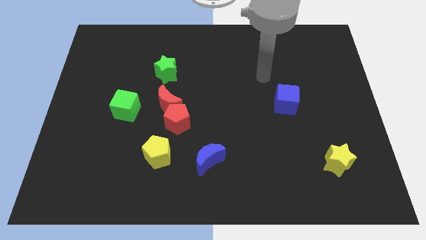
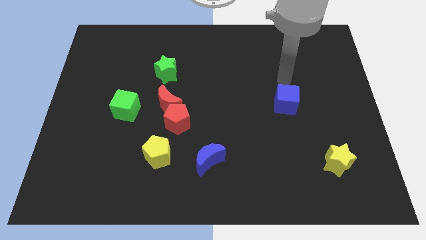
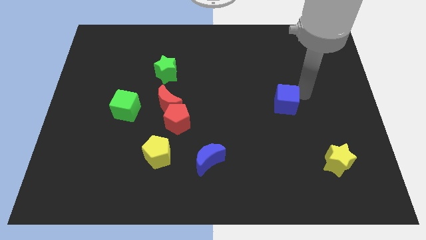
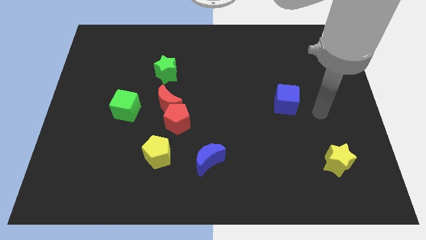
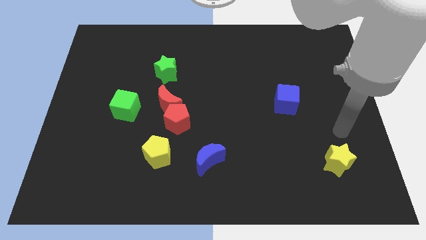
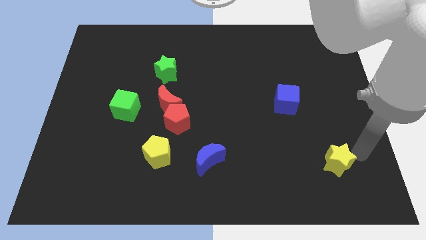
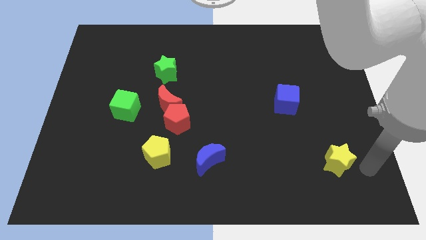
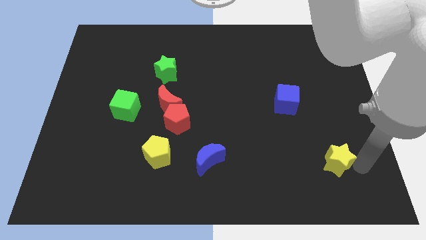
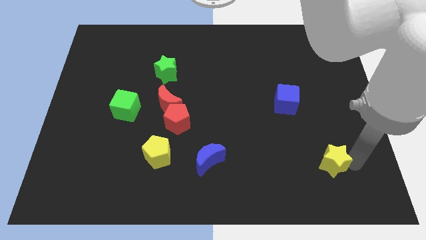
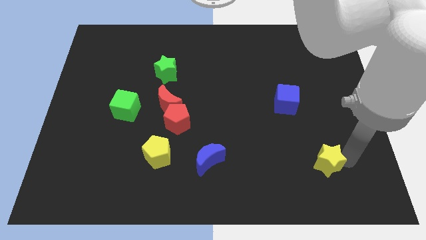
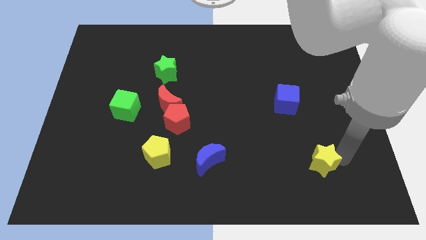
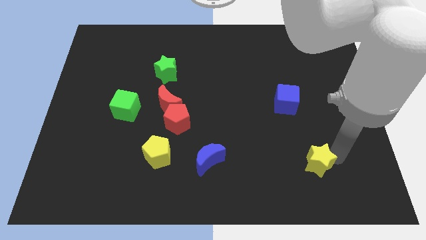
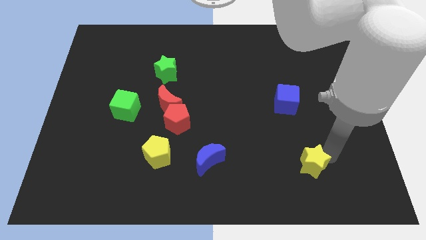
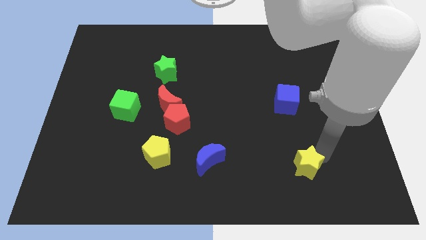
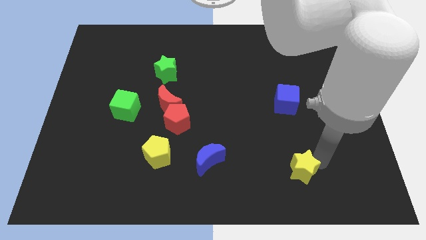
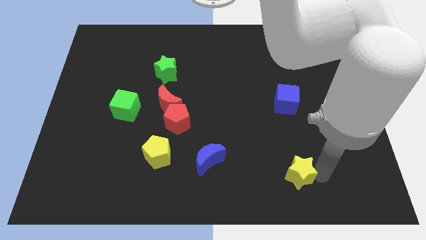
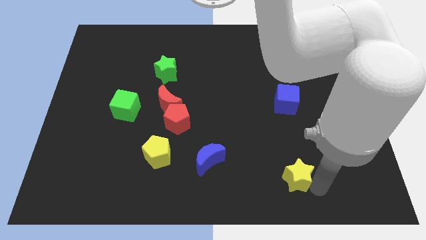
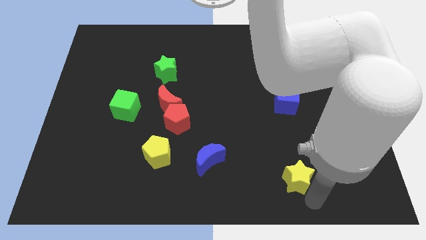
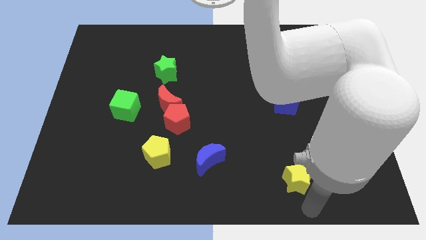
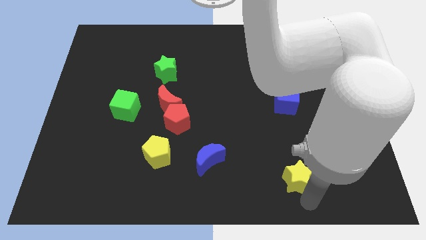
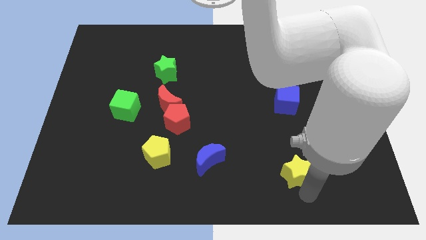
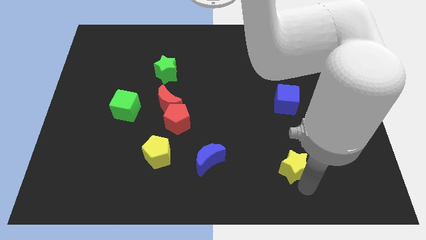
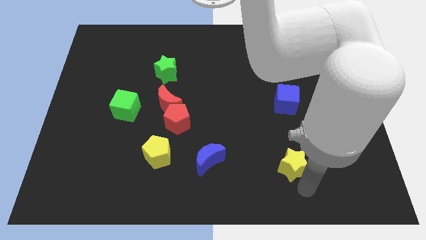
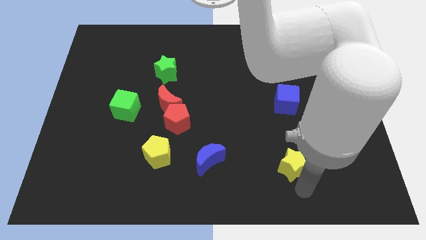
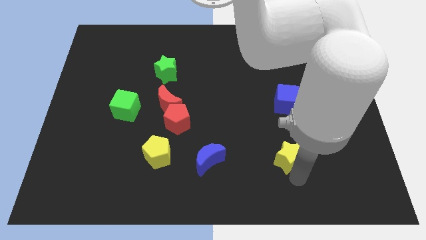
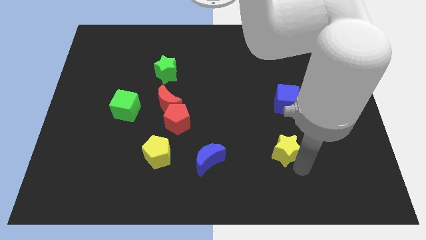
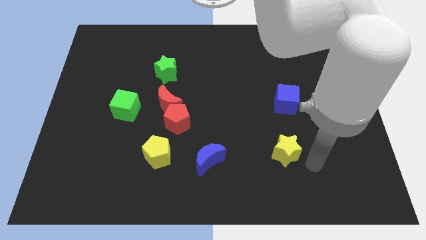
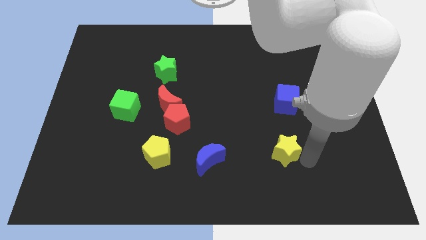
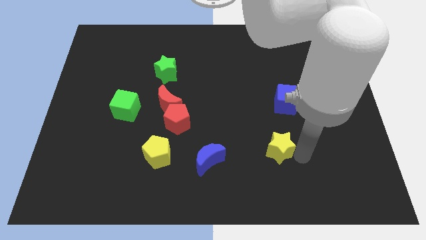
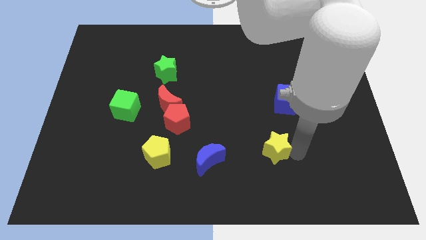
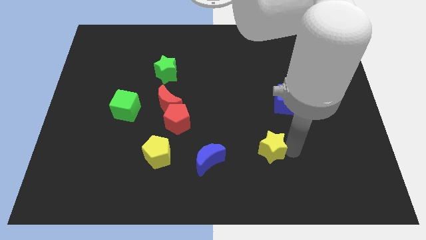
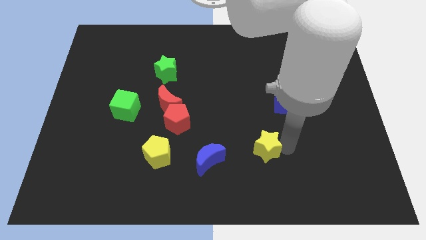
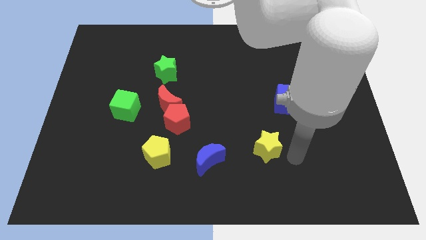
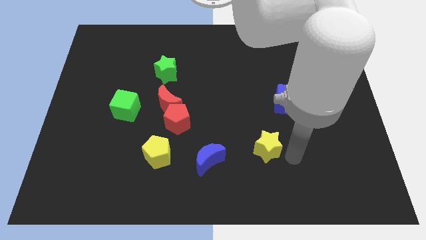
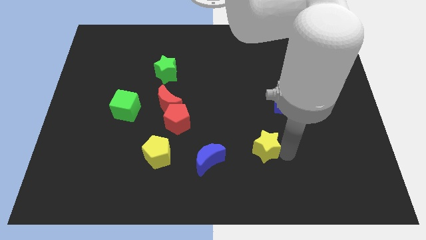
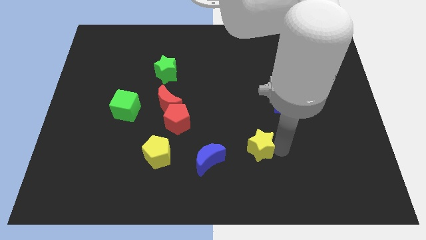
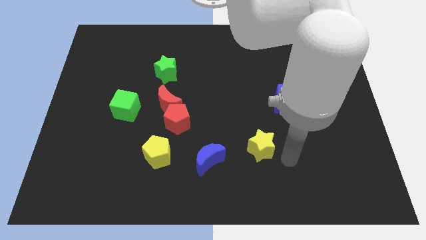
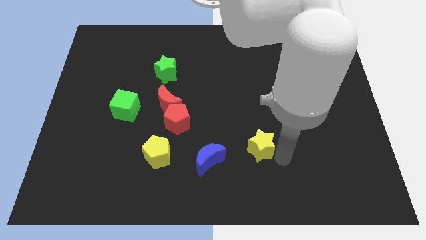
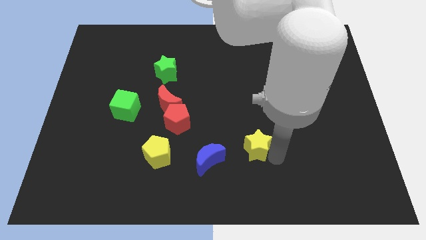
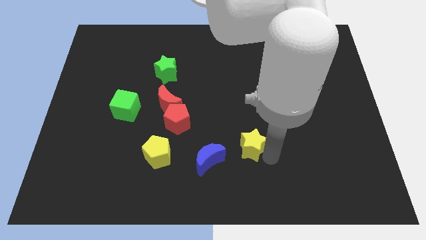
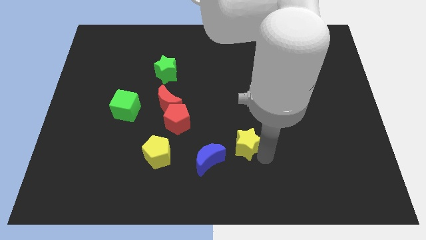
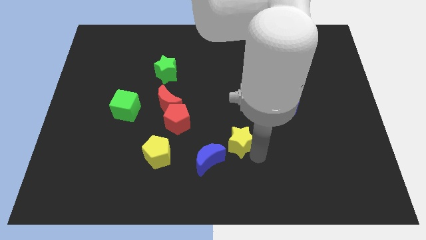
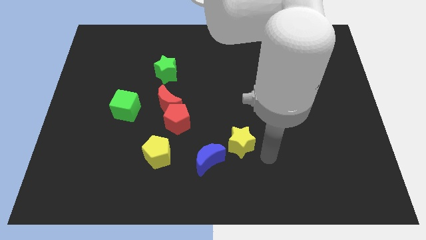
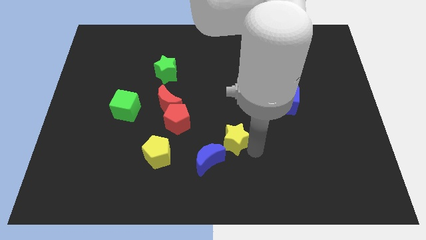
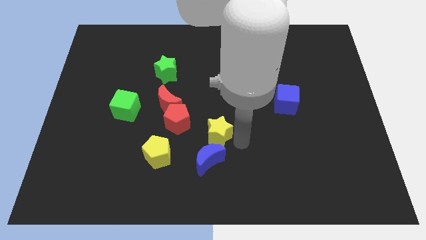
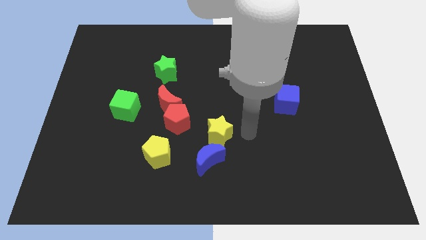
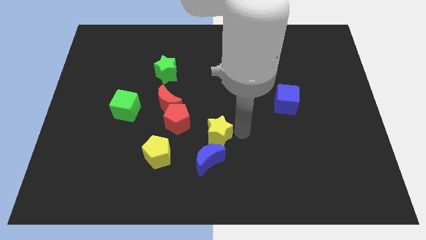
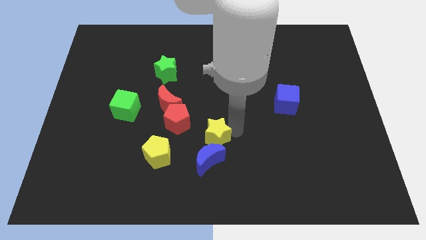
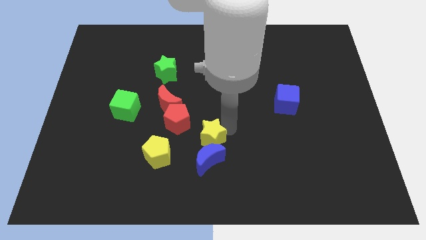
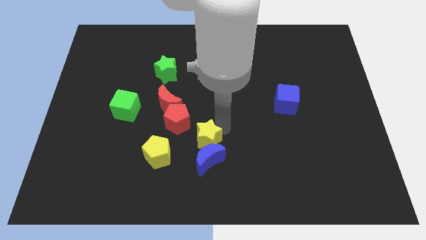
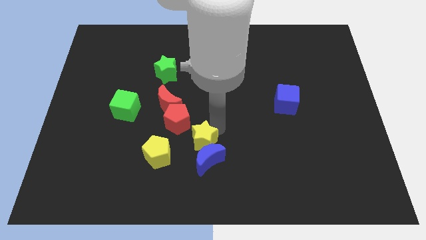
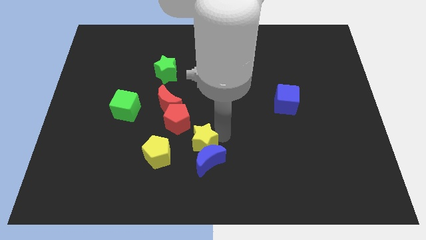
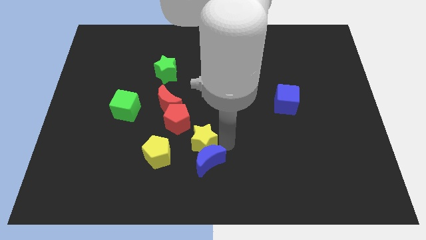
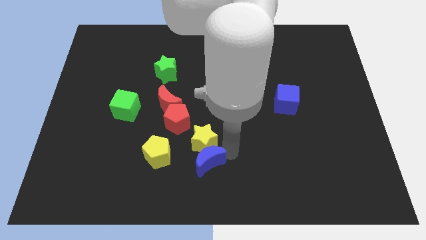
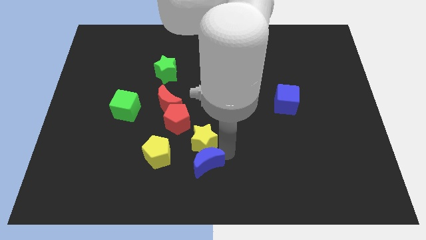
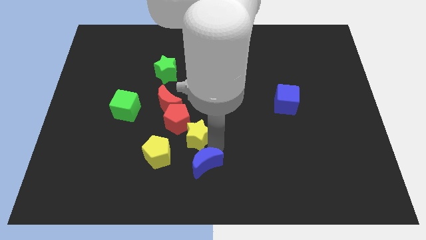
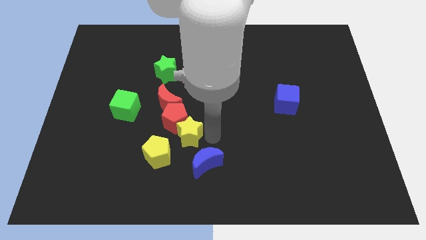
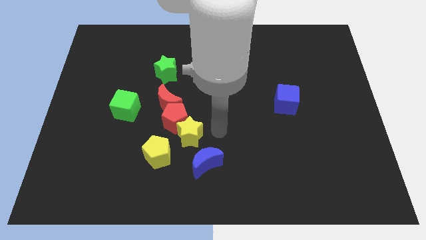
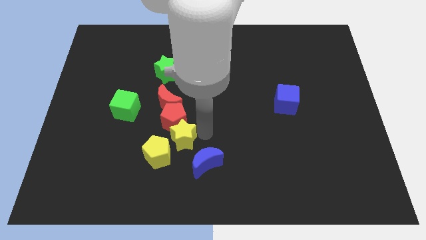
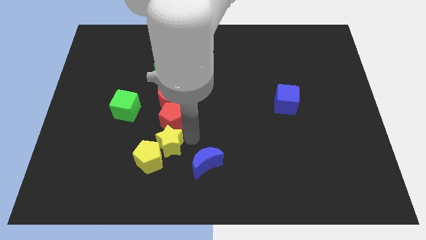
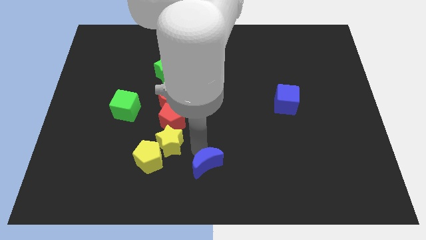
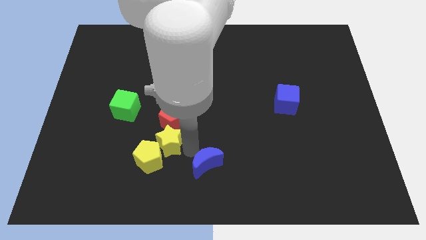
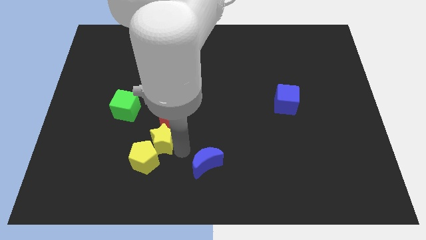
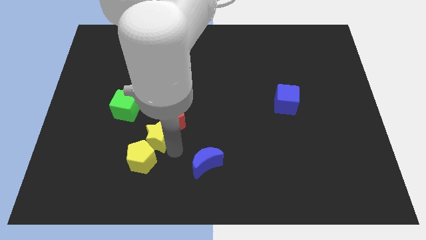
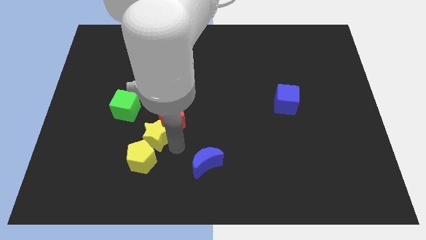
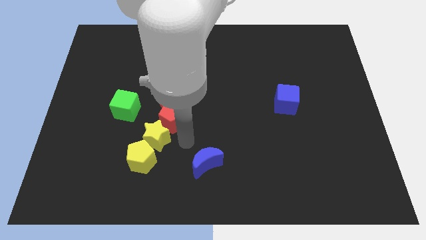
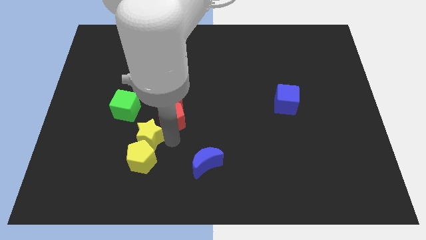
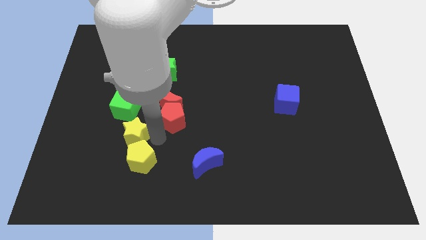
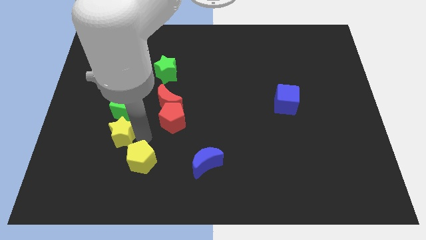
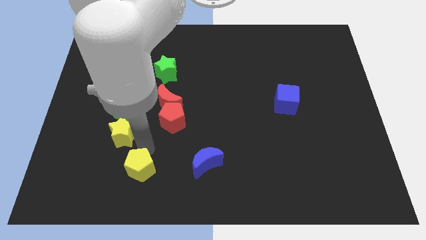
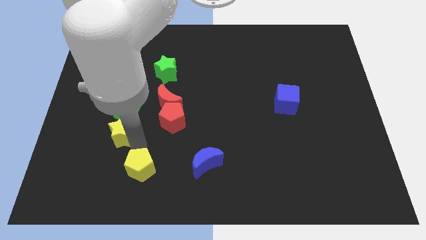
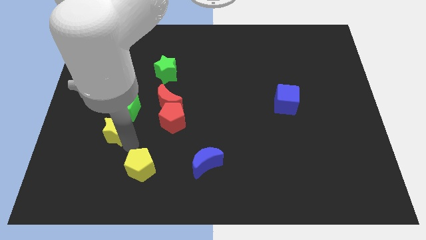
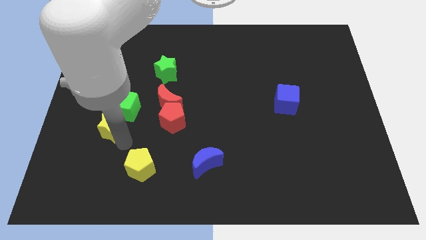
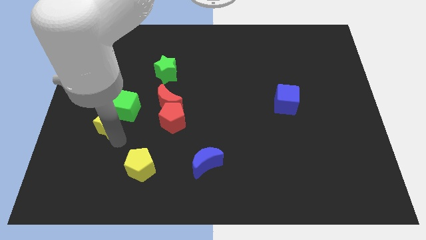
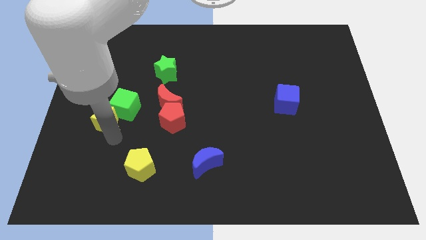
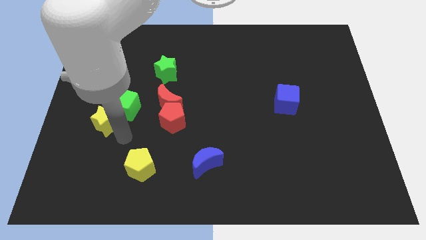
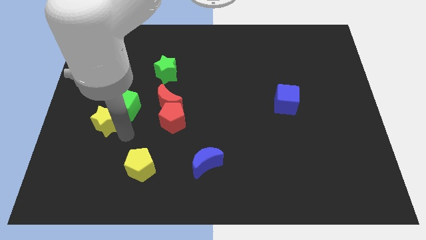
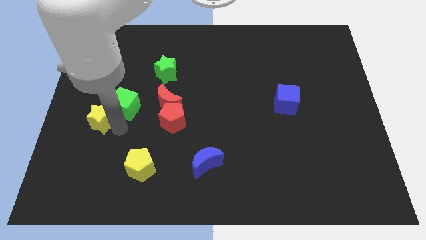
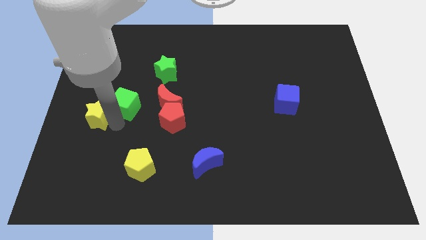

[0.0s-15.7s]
push the yellow star to the left side of the board
